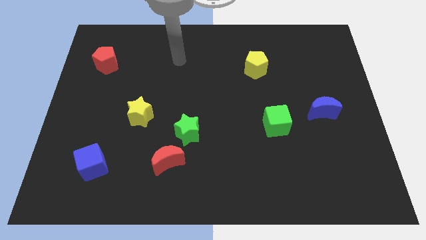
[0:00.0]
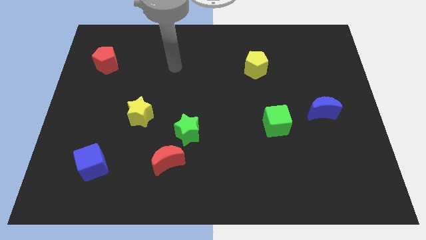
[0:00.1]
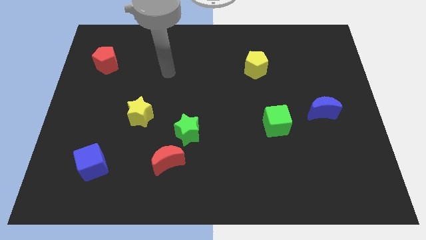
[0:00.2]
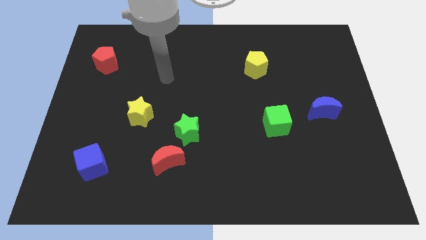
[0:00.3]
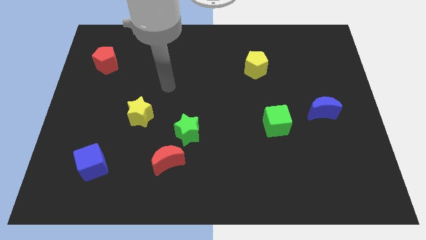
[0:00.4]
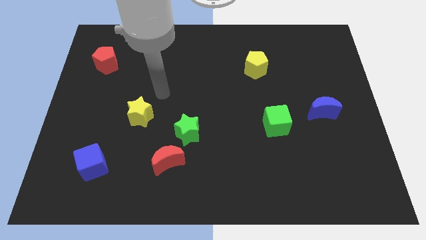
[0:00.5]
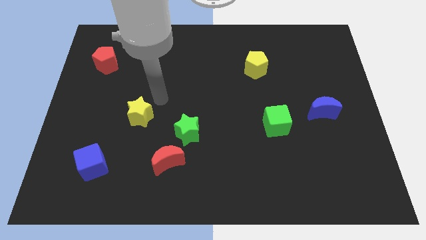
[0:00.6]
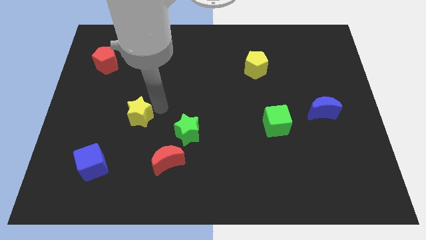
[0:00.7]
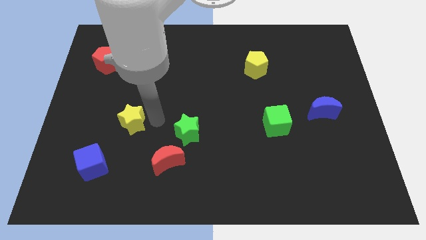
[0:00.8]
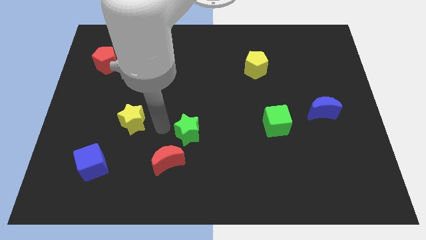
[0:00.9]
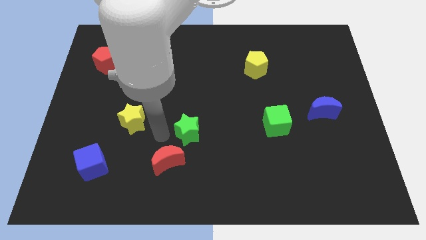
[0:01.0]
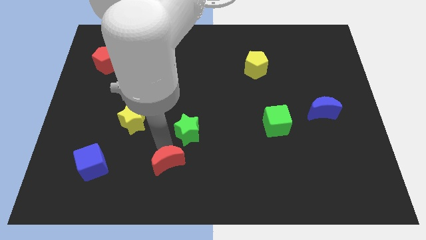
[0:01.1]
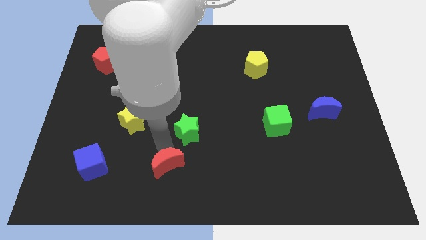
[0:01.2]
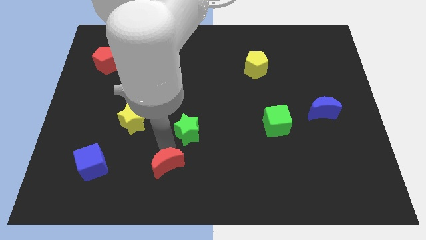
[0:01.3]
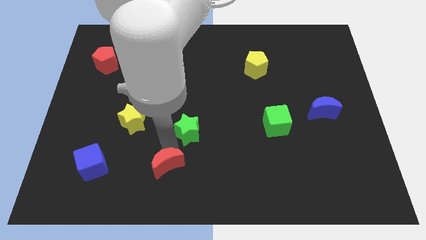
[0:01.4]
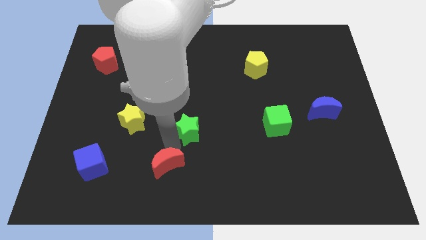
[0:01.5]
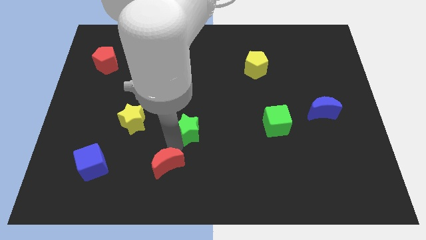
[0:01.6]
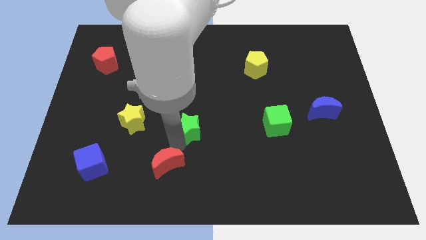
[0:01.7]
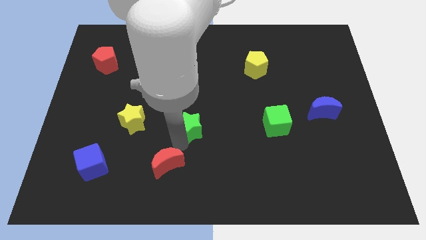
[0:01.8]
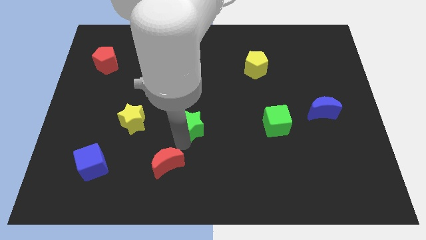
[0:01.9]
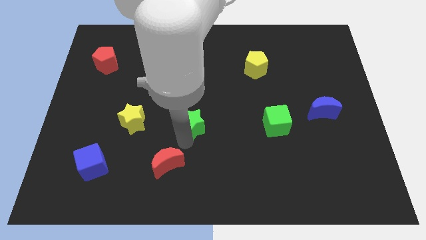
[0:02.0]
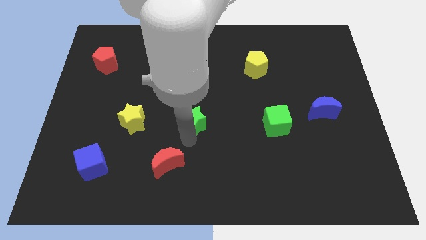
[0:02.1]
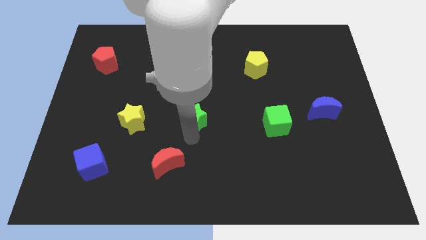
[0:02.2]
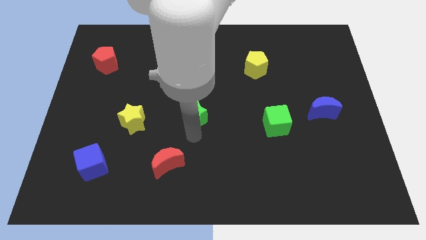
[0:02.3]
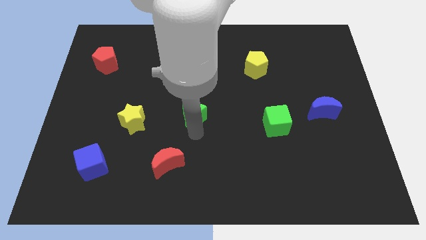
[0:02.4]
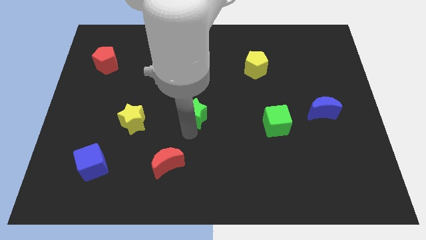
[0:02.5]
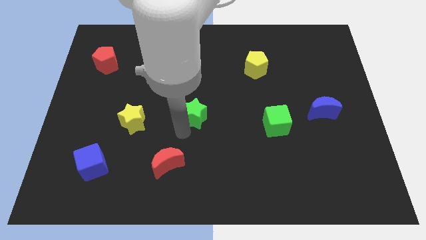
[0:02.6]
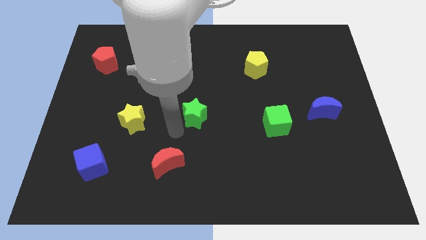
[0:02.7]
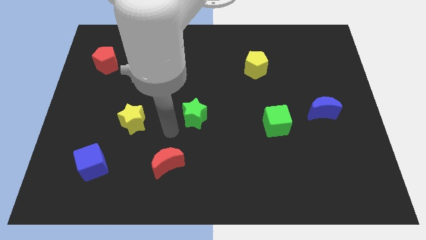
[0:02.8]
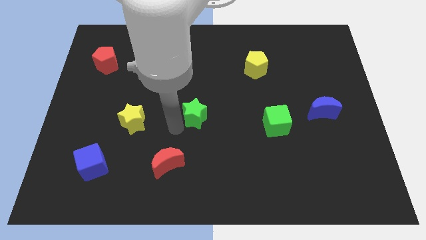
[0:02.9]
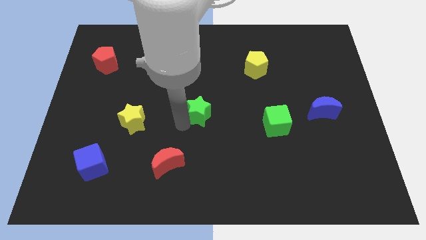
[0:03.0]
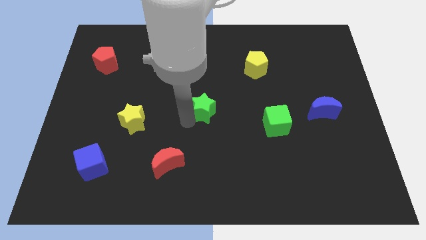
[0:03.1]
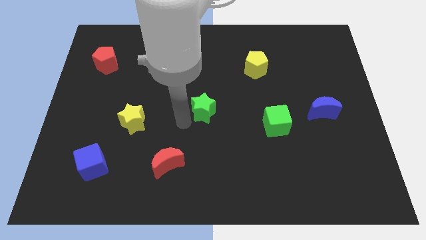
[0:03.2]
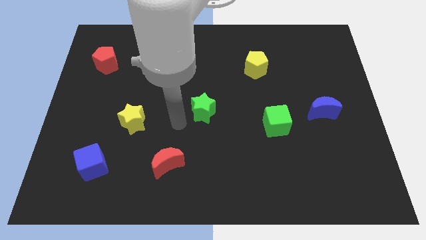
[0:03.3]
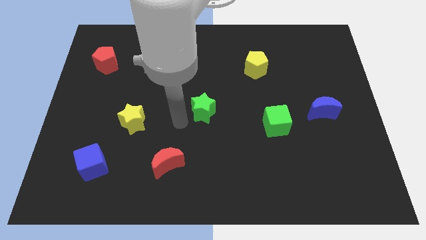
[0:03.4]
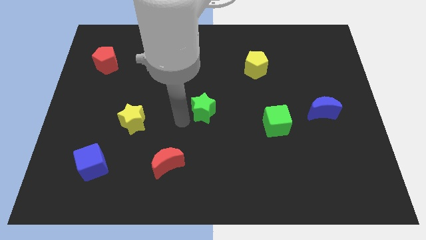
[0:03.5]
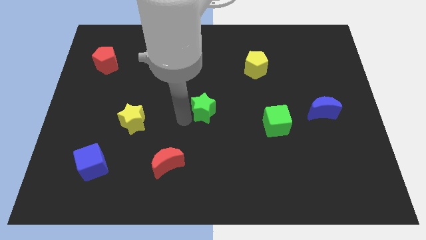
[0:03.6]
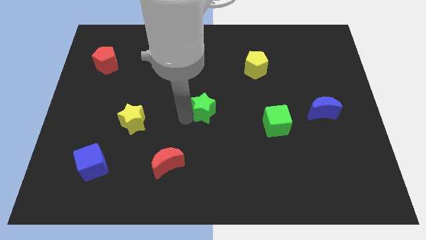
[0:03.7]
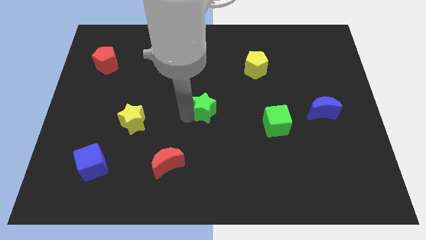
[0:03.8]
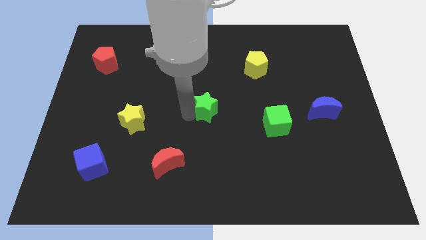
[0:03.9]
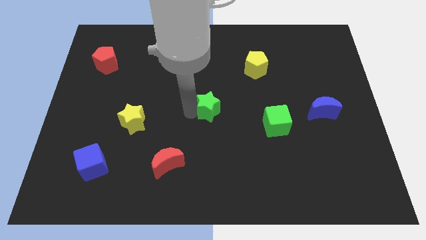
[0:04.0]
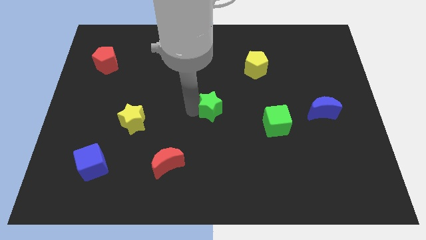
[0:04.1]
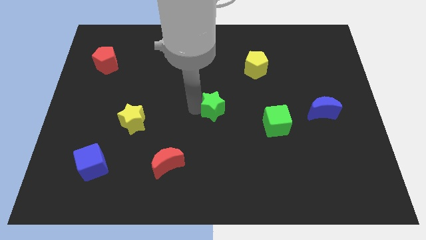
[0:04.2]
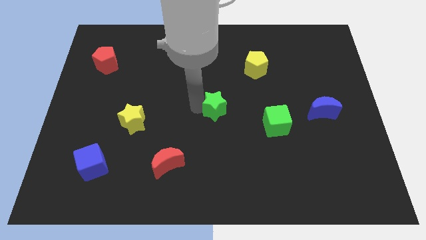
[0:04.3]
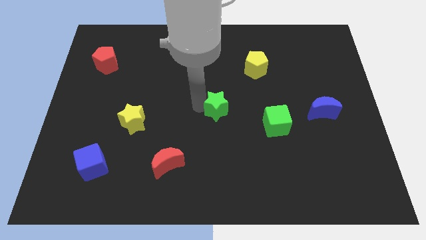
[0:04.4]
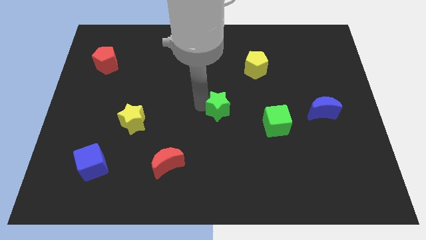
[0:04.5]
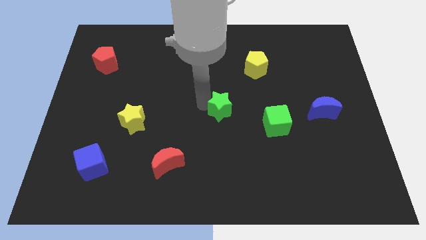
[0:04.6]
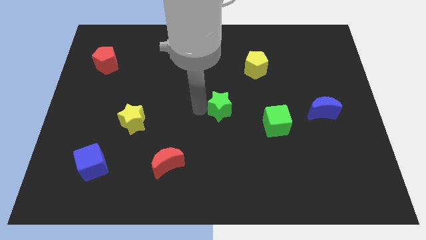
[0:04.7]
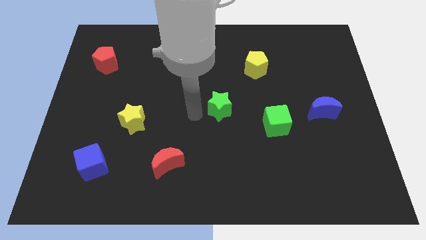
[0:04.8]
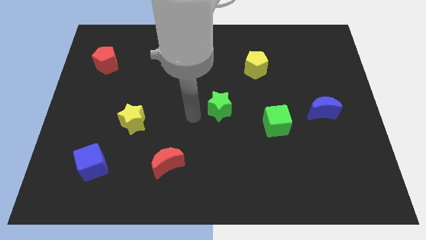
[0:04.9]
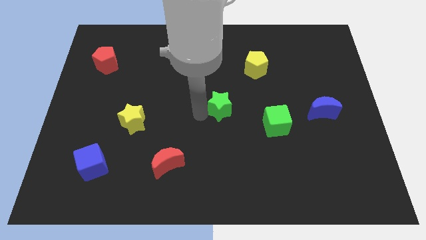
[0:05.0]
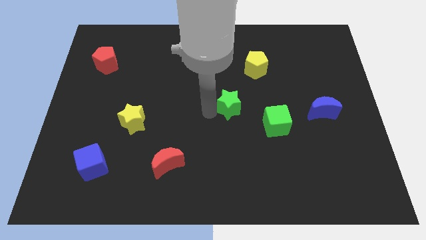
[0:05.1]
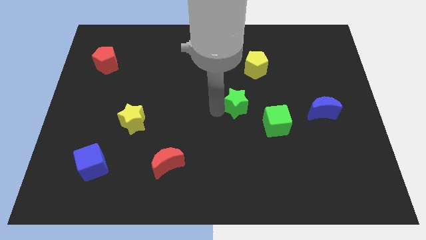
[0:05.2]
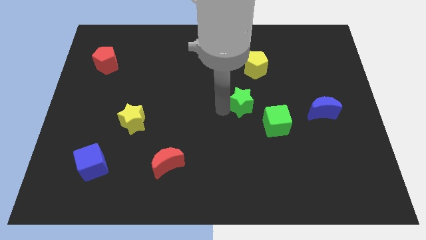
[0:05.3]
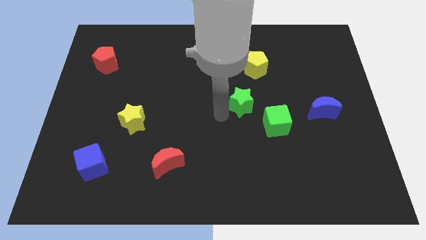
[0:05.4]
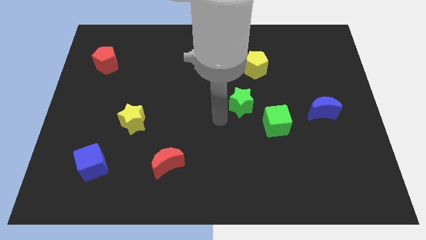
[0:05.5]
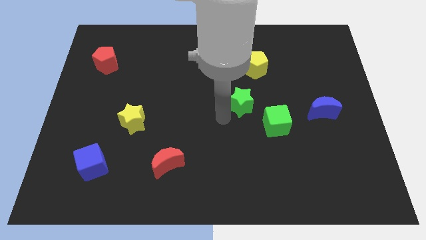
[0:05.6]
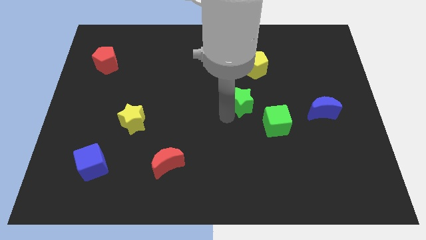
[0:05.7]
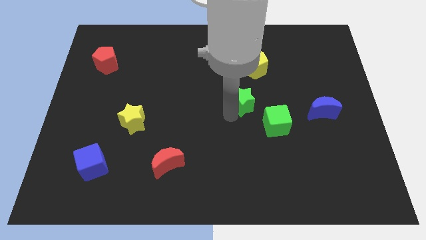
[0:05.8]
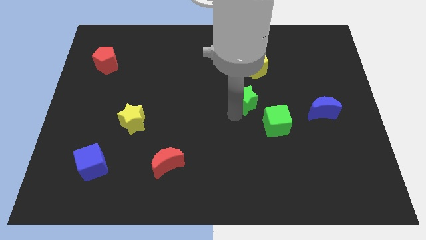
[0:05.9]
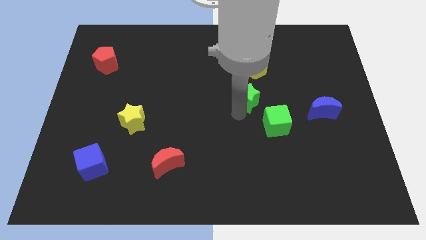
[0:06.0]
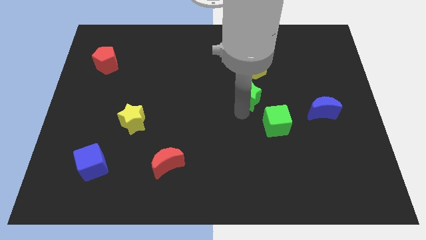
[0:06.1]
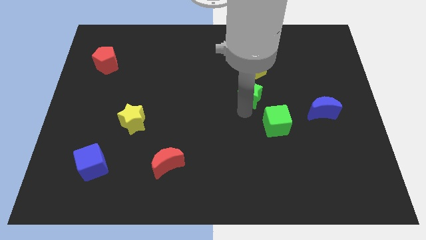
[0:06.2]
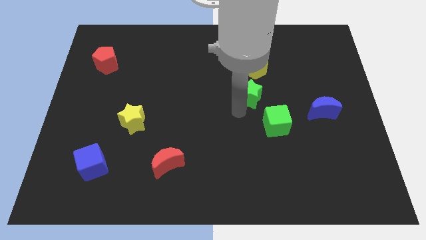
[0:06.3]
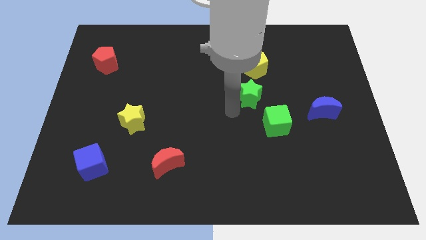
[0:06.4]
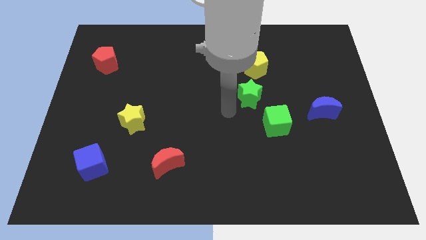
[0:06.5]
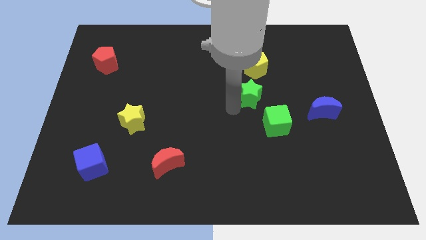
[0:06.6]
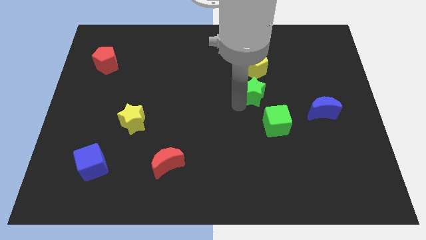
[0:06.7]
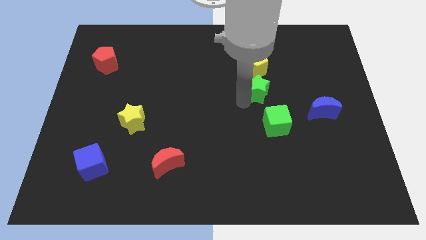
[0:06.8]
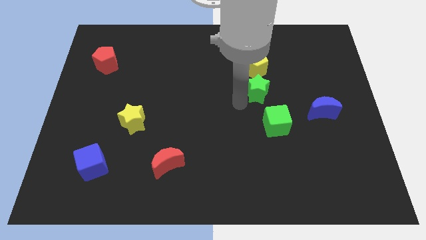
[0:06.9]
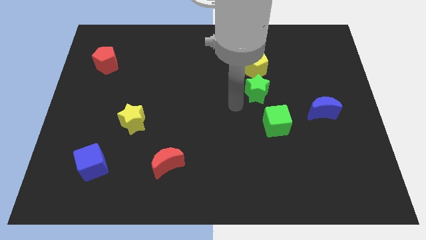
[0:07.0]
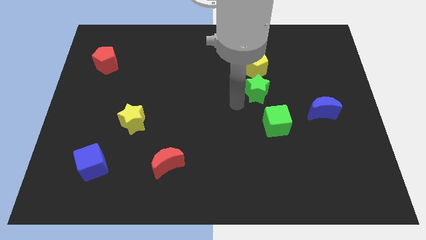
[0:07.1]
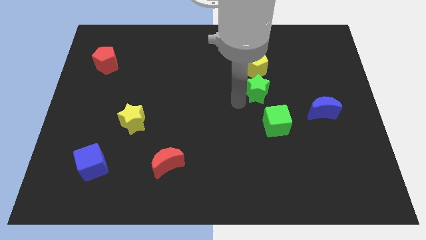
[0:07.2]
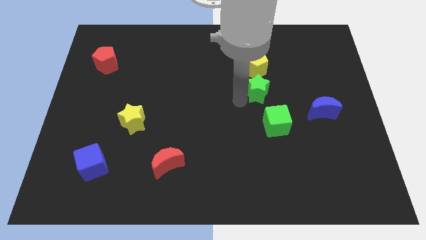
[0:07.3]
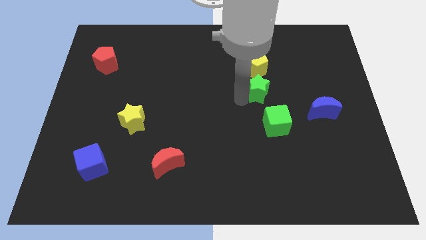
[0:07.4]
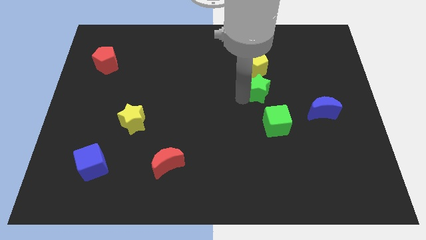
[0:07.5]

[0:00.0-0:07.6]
move the green star upwards and to the right

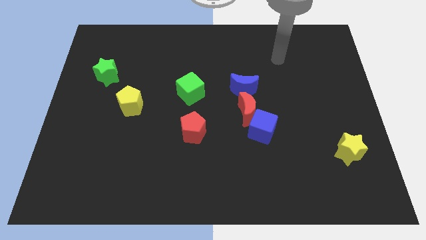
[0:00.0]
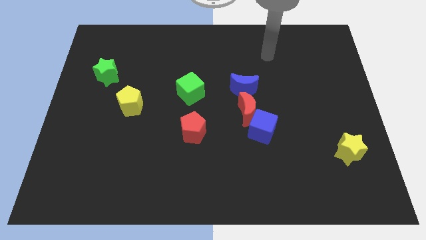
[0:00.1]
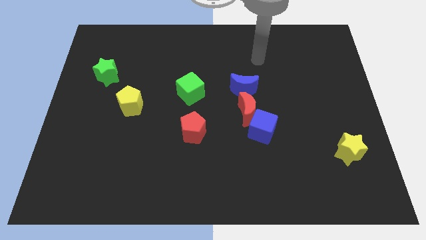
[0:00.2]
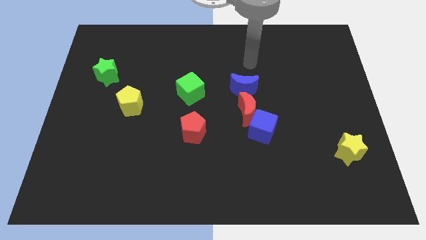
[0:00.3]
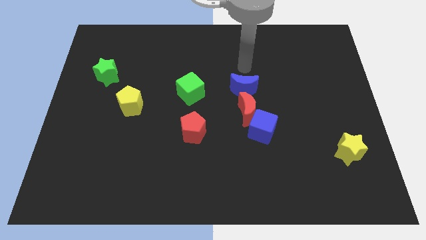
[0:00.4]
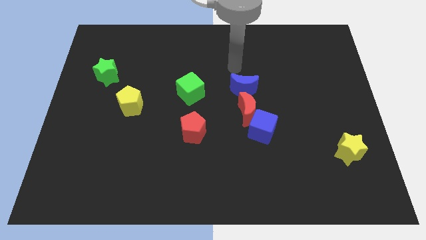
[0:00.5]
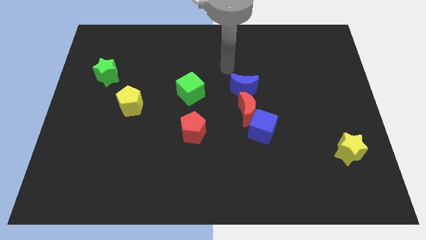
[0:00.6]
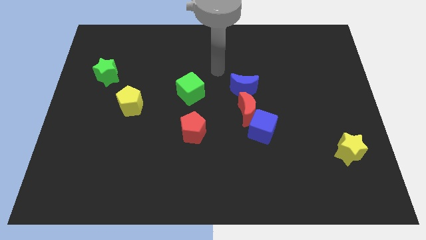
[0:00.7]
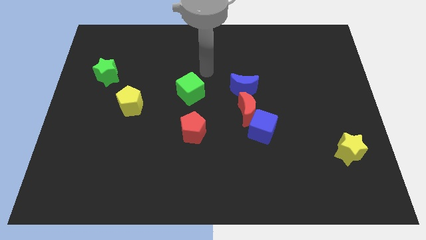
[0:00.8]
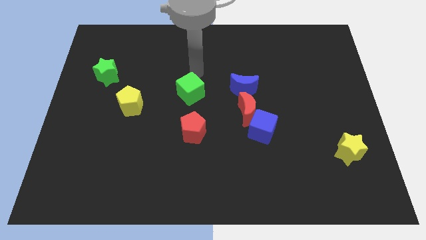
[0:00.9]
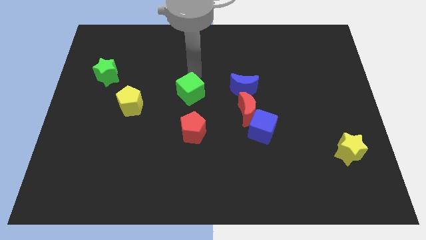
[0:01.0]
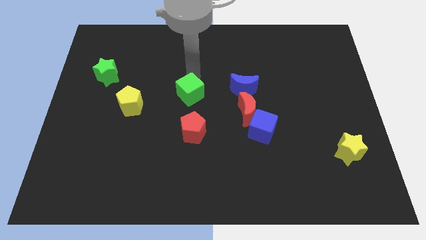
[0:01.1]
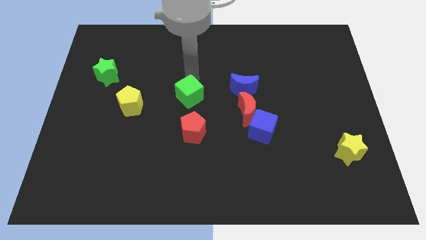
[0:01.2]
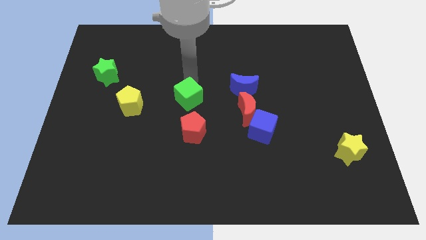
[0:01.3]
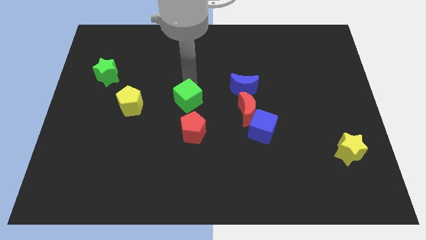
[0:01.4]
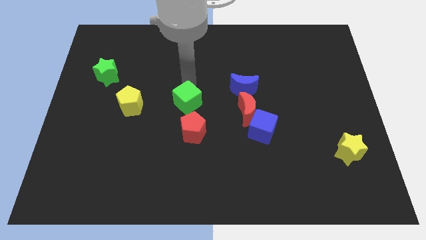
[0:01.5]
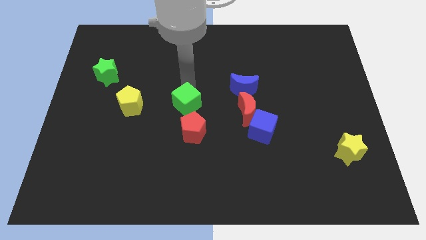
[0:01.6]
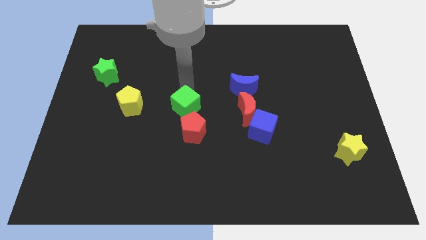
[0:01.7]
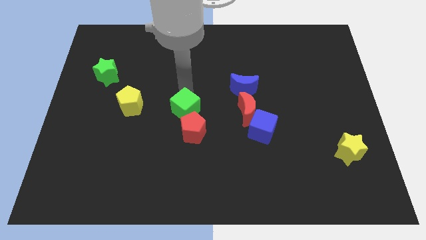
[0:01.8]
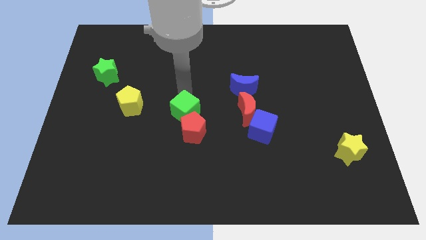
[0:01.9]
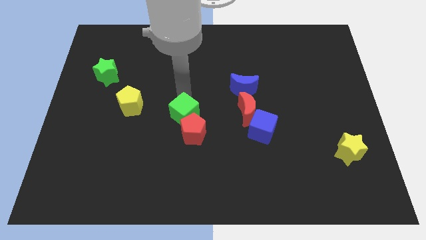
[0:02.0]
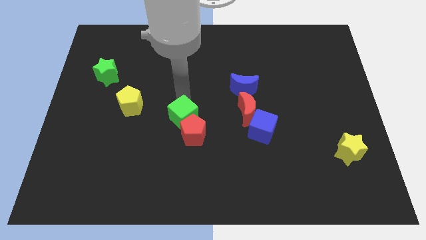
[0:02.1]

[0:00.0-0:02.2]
move the green cube somewhat downwards
